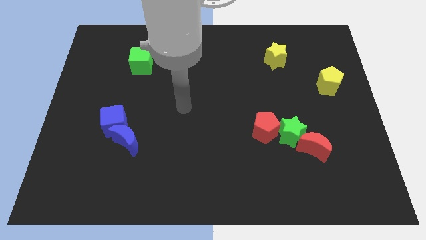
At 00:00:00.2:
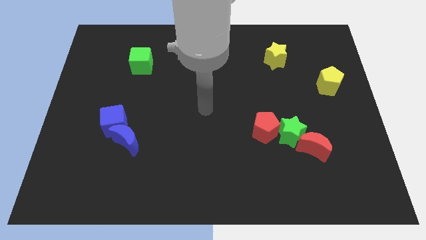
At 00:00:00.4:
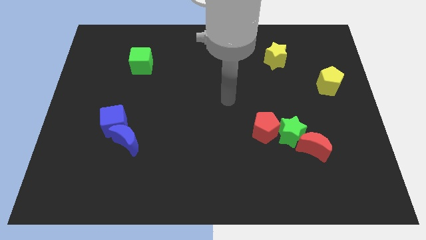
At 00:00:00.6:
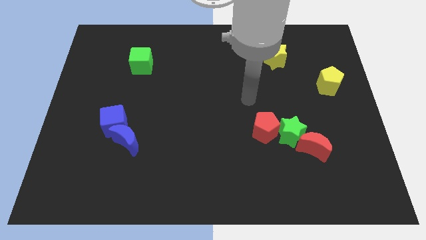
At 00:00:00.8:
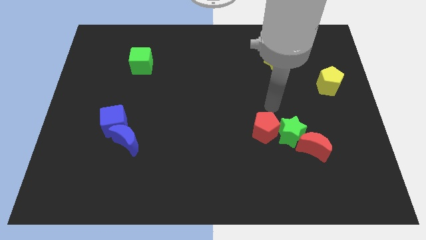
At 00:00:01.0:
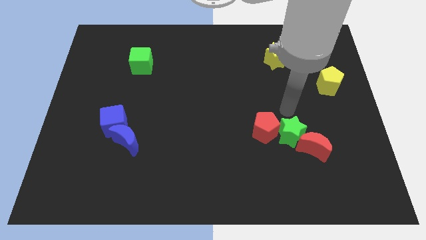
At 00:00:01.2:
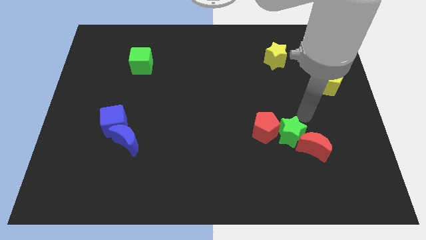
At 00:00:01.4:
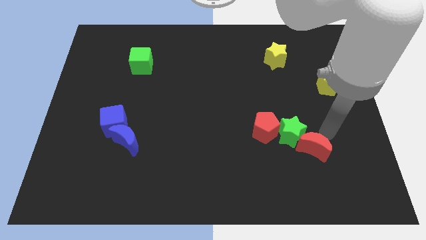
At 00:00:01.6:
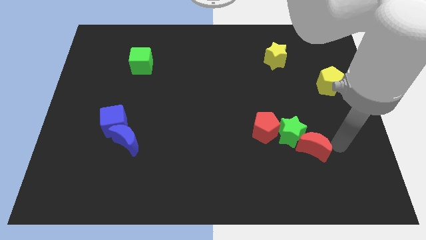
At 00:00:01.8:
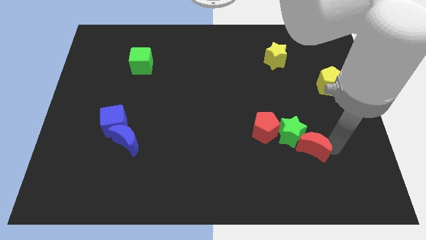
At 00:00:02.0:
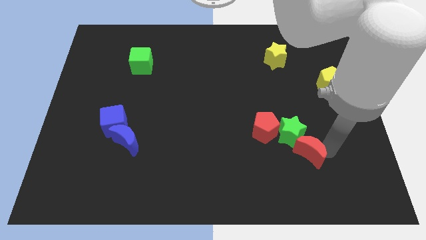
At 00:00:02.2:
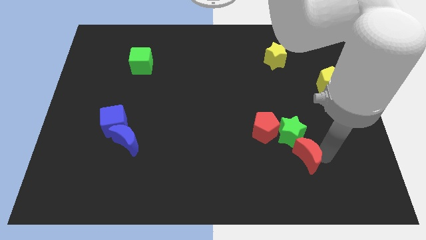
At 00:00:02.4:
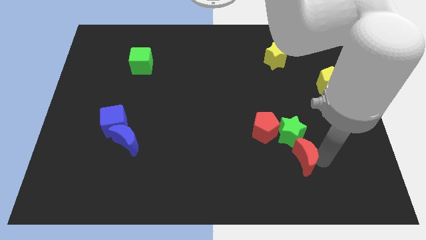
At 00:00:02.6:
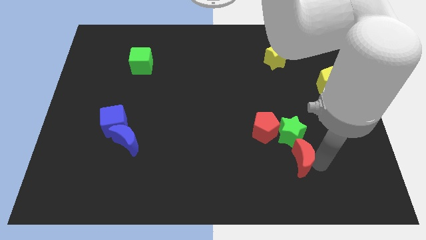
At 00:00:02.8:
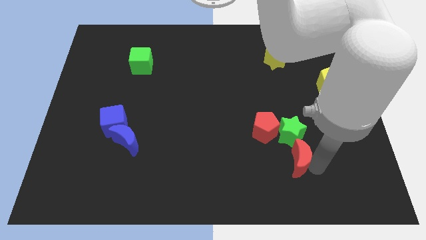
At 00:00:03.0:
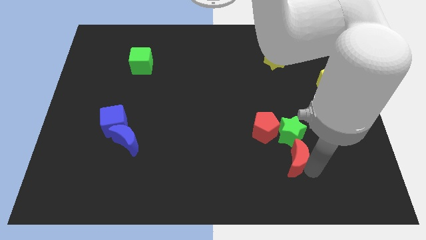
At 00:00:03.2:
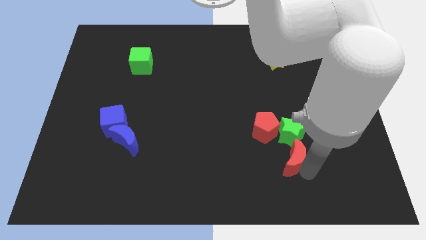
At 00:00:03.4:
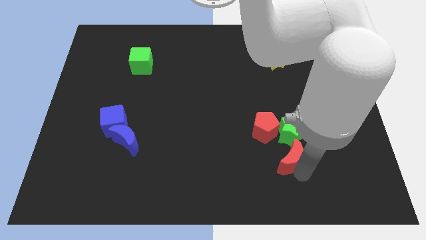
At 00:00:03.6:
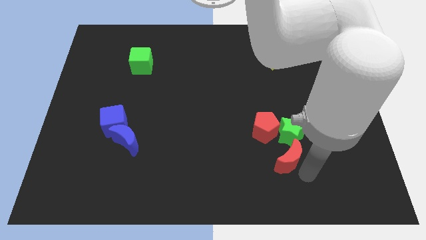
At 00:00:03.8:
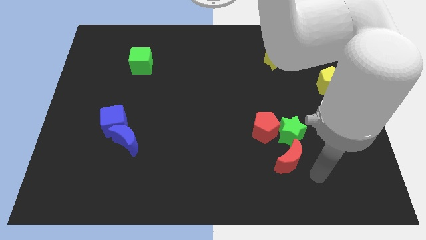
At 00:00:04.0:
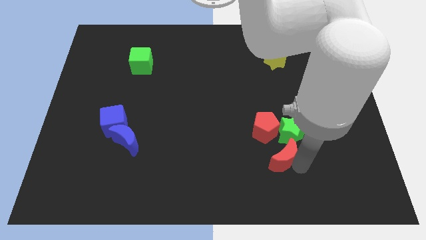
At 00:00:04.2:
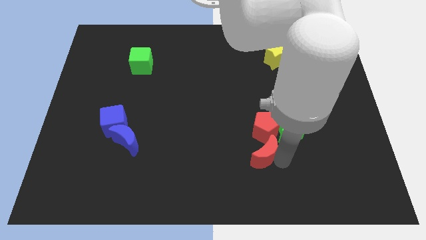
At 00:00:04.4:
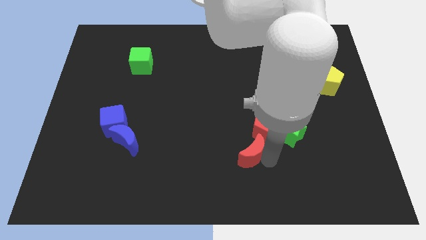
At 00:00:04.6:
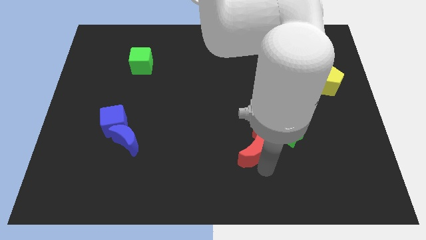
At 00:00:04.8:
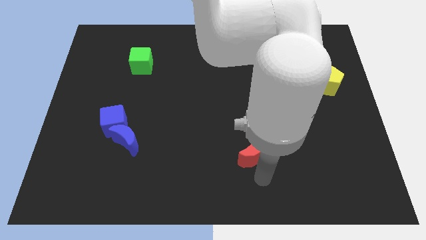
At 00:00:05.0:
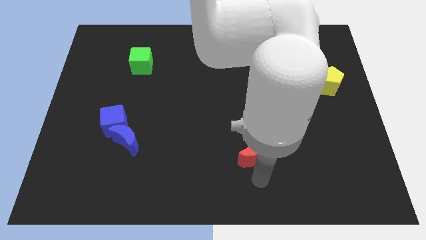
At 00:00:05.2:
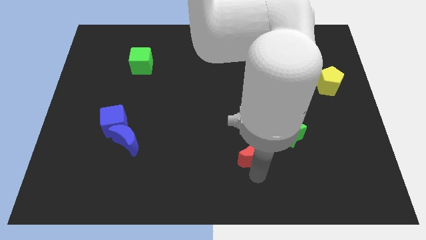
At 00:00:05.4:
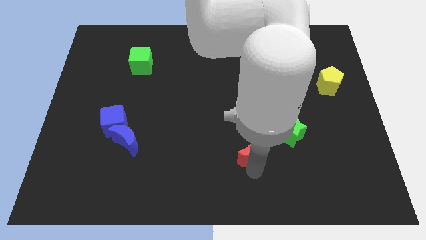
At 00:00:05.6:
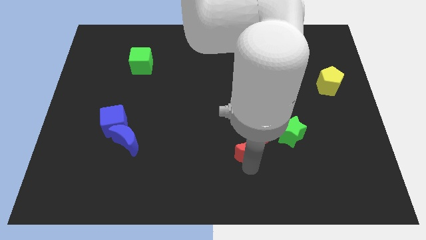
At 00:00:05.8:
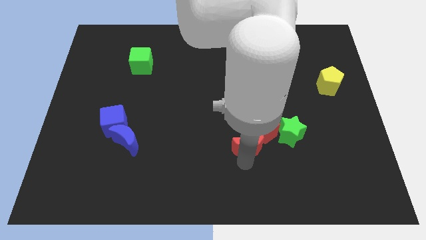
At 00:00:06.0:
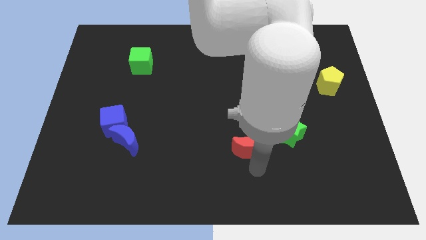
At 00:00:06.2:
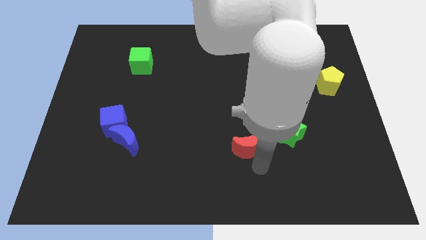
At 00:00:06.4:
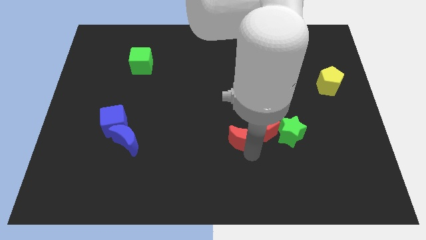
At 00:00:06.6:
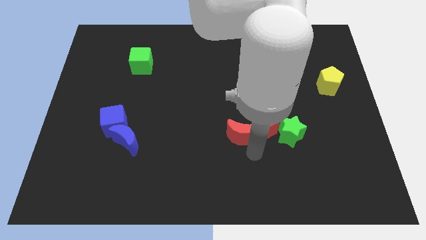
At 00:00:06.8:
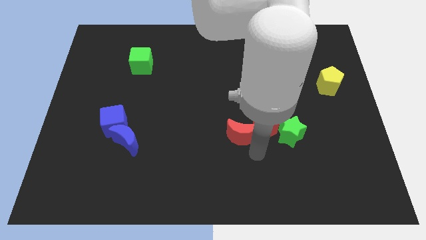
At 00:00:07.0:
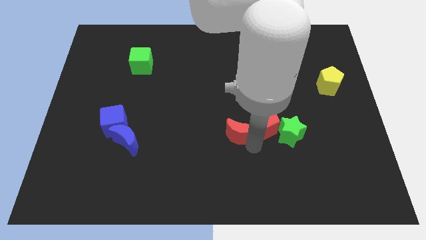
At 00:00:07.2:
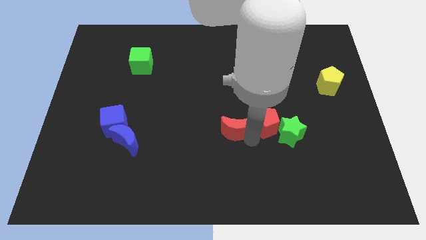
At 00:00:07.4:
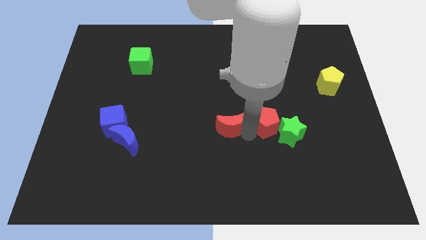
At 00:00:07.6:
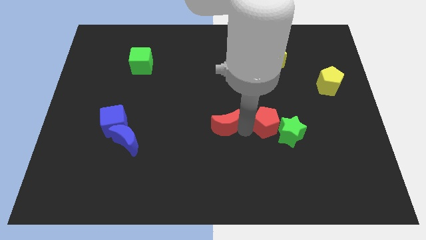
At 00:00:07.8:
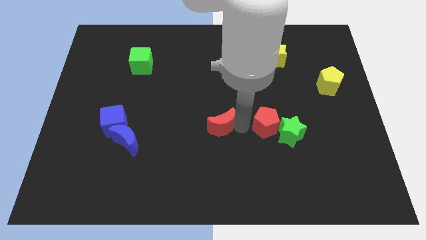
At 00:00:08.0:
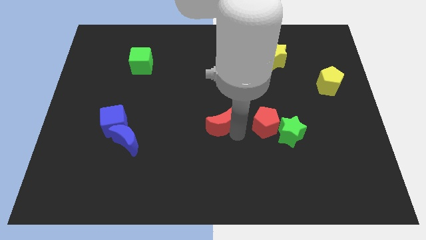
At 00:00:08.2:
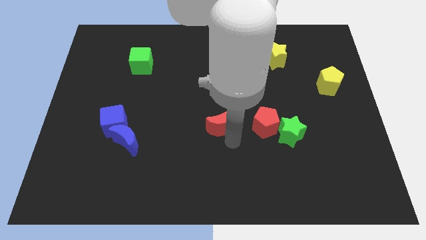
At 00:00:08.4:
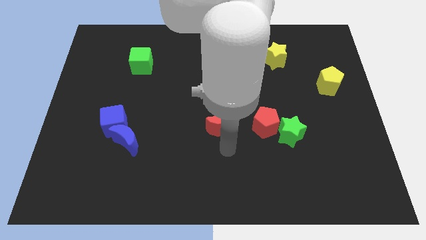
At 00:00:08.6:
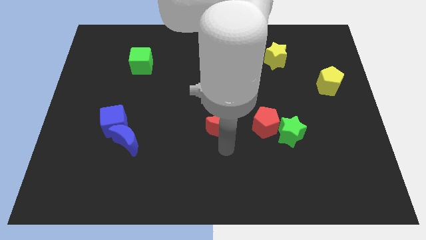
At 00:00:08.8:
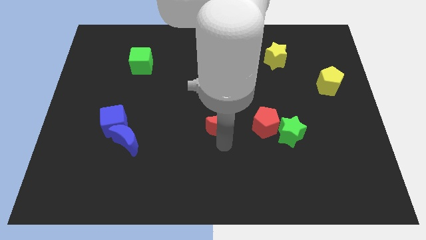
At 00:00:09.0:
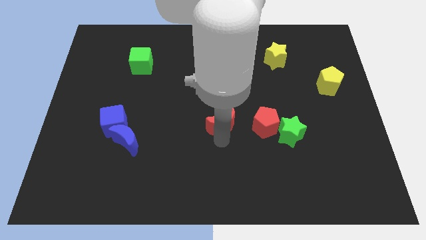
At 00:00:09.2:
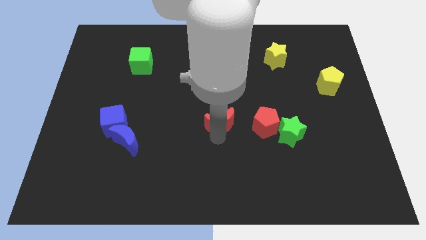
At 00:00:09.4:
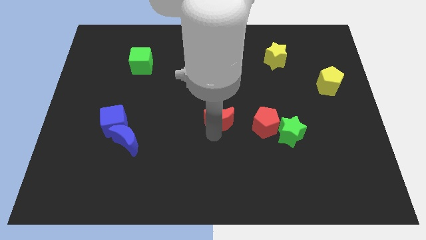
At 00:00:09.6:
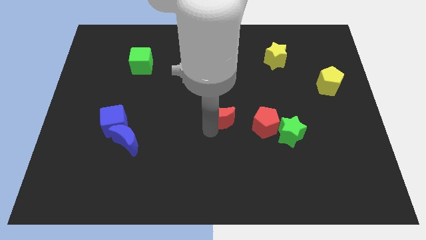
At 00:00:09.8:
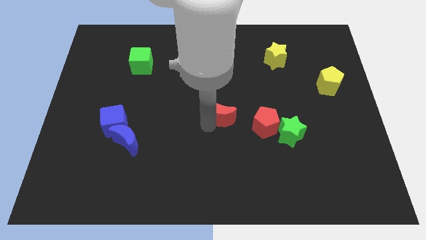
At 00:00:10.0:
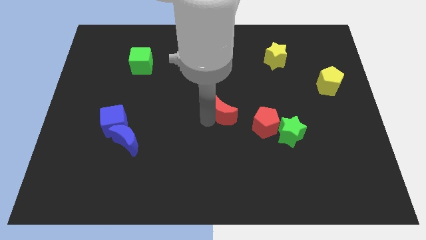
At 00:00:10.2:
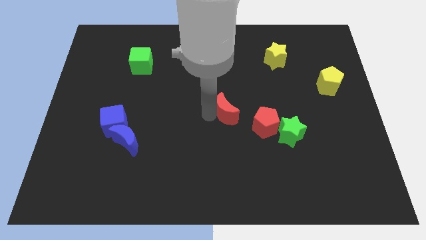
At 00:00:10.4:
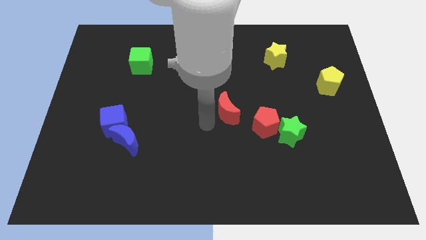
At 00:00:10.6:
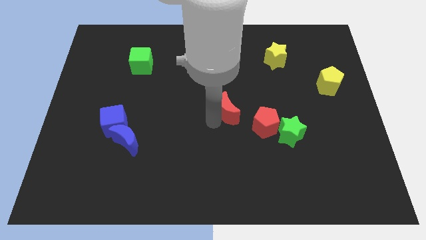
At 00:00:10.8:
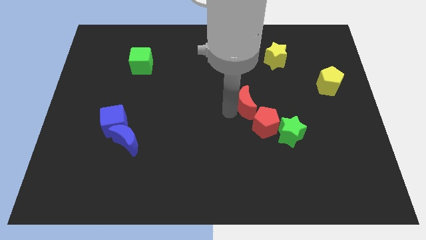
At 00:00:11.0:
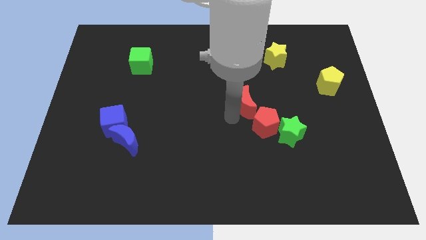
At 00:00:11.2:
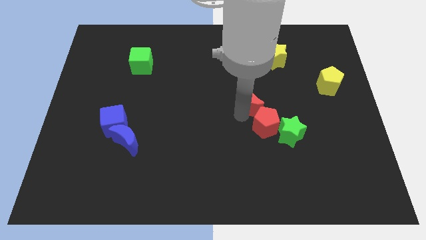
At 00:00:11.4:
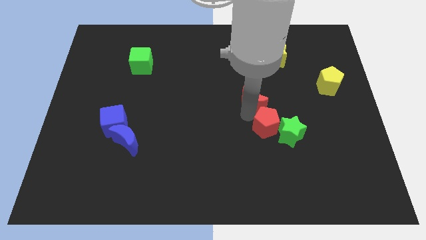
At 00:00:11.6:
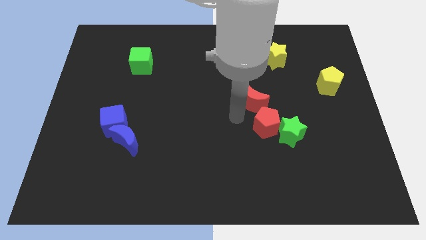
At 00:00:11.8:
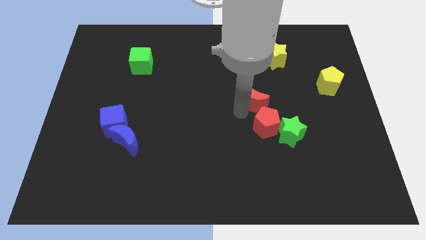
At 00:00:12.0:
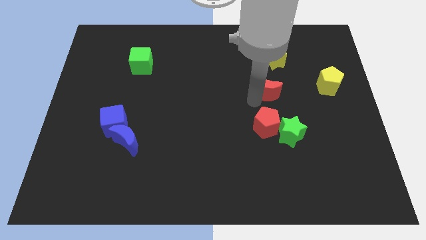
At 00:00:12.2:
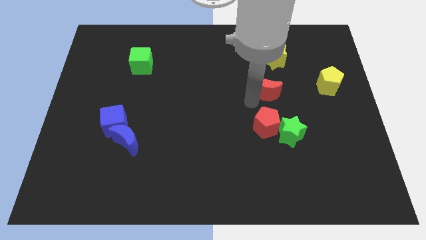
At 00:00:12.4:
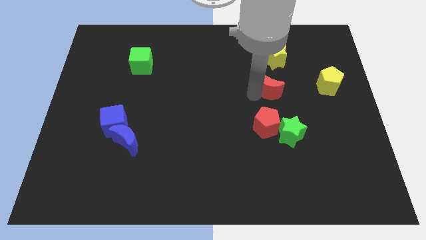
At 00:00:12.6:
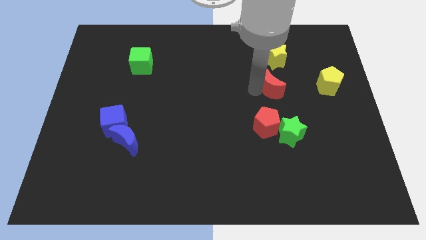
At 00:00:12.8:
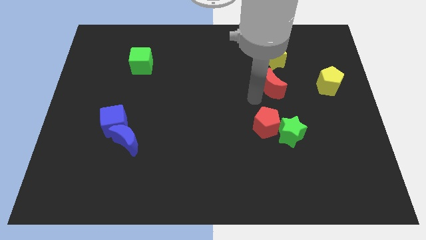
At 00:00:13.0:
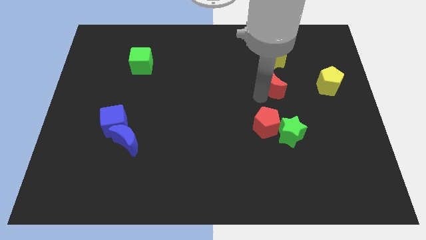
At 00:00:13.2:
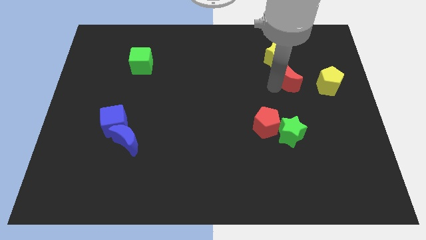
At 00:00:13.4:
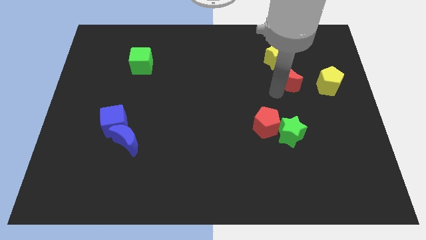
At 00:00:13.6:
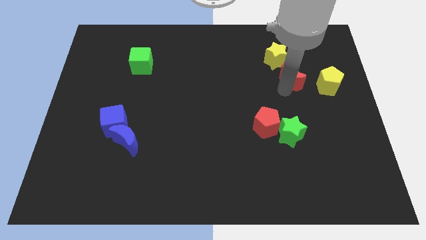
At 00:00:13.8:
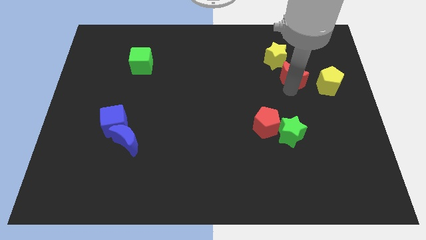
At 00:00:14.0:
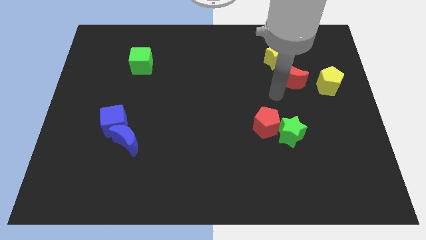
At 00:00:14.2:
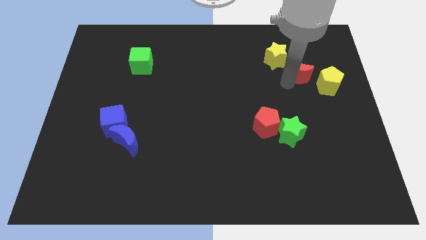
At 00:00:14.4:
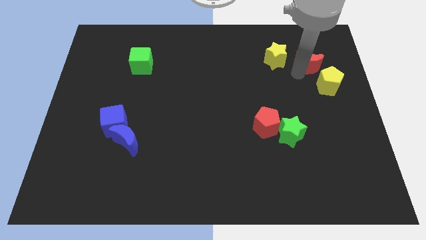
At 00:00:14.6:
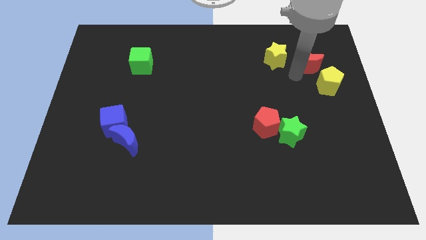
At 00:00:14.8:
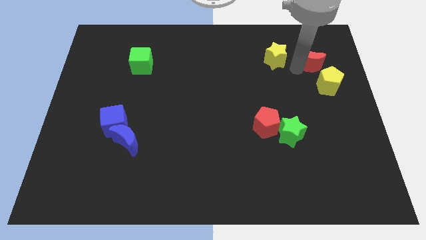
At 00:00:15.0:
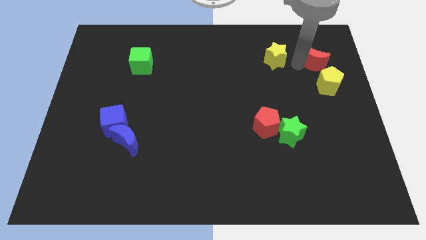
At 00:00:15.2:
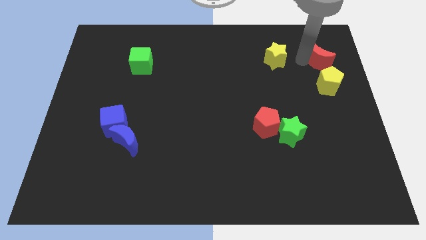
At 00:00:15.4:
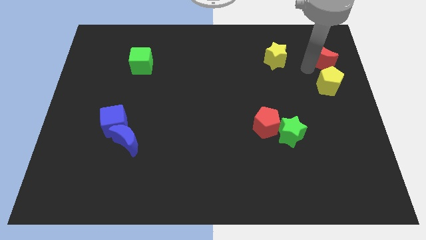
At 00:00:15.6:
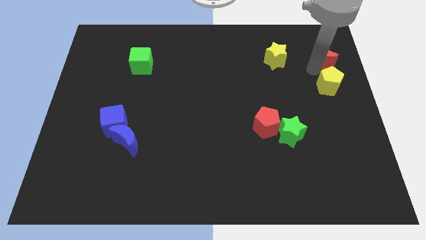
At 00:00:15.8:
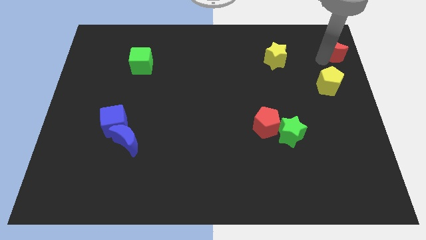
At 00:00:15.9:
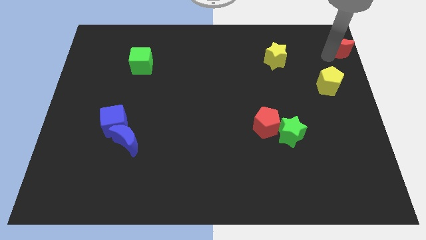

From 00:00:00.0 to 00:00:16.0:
put the red moon to the top right corner
